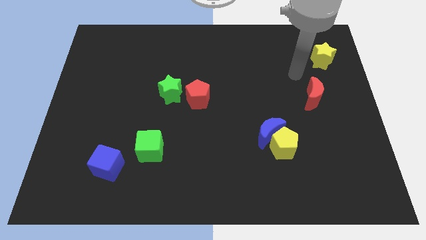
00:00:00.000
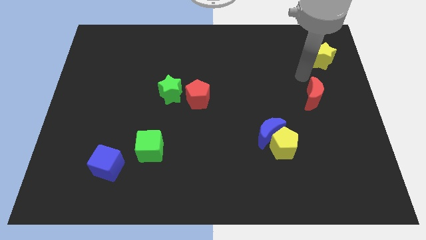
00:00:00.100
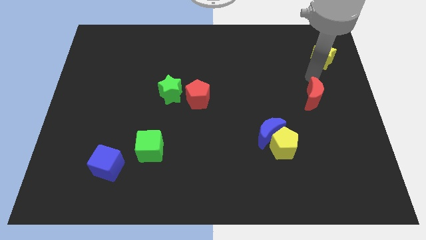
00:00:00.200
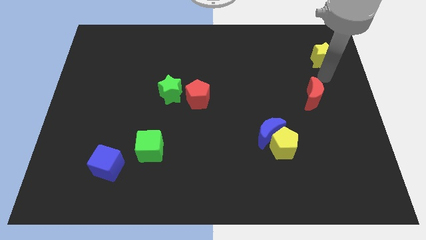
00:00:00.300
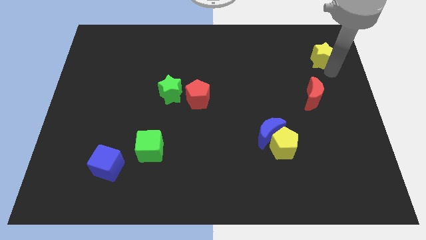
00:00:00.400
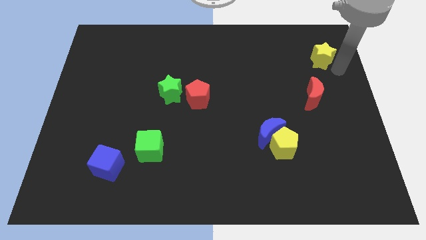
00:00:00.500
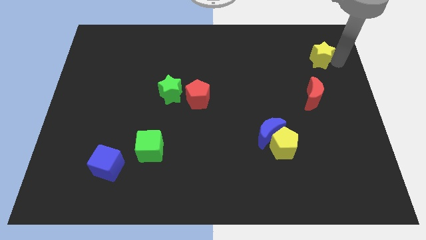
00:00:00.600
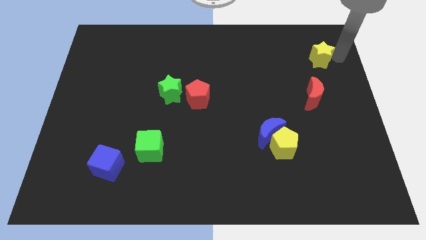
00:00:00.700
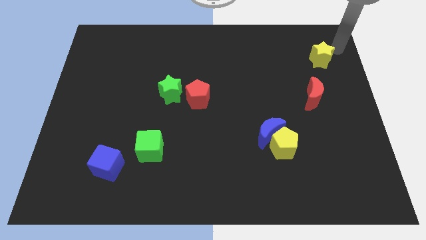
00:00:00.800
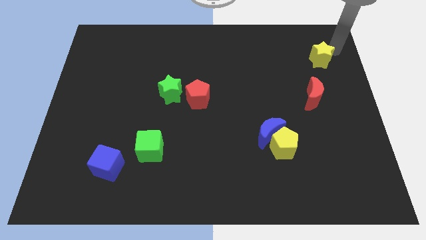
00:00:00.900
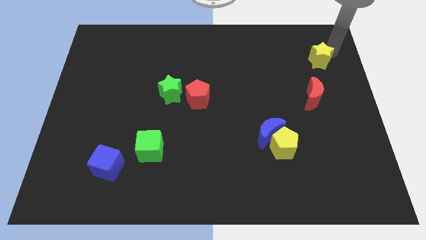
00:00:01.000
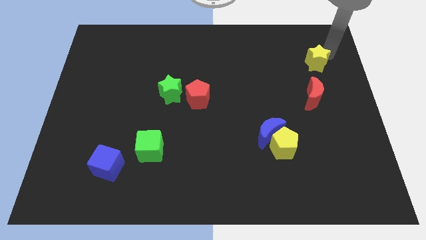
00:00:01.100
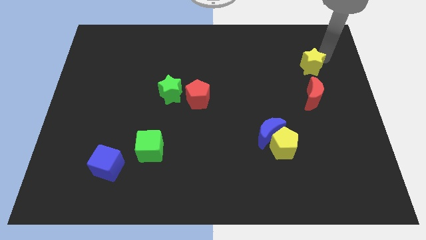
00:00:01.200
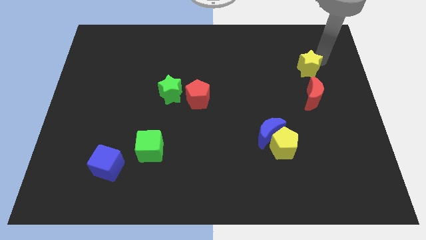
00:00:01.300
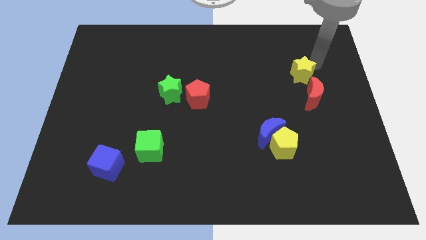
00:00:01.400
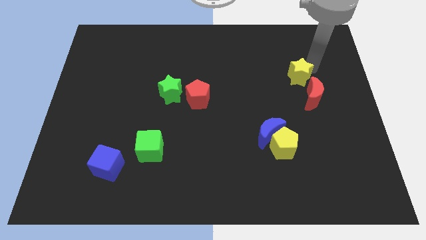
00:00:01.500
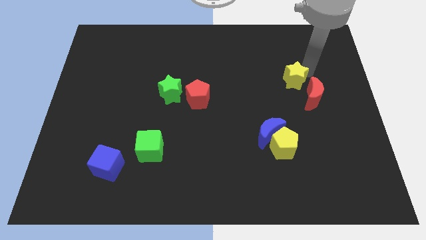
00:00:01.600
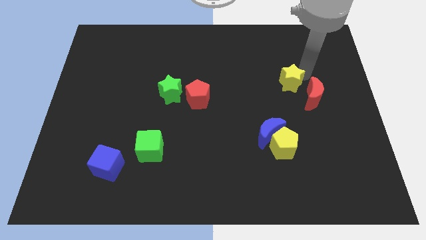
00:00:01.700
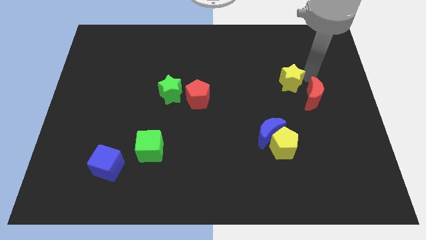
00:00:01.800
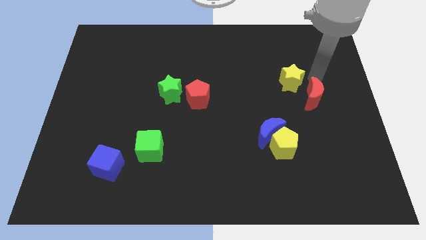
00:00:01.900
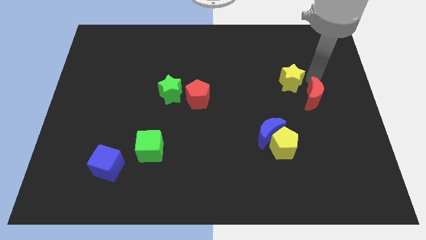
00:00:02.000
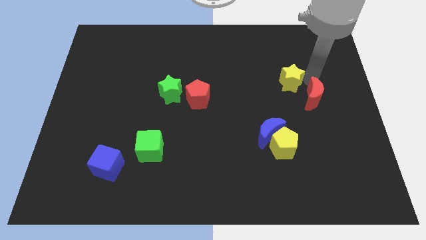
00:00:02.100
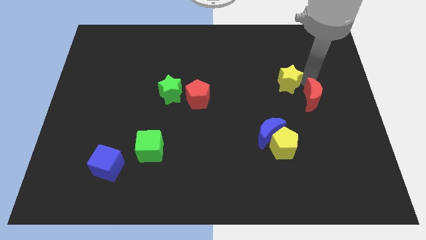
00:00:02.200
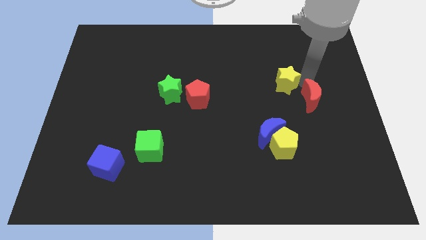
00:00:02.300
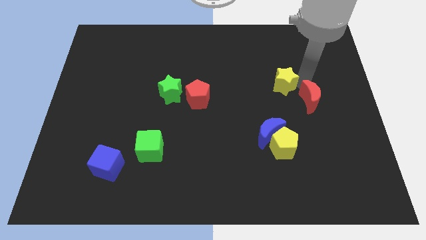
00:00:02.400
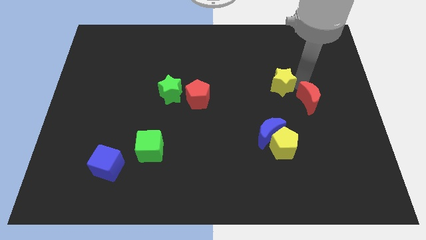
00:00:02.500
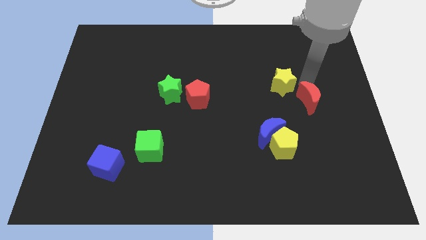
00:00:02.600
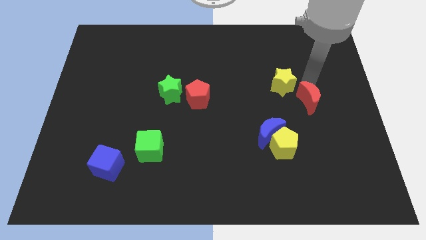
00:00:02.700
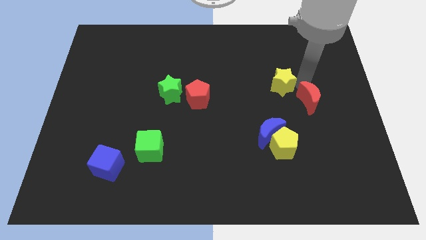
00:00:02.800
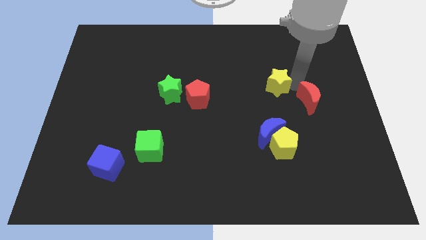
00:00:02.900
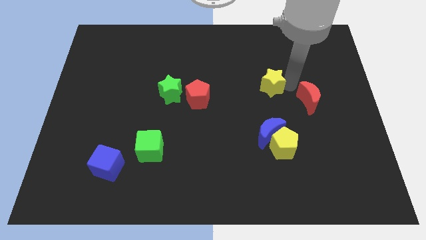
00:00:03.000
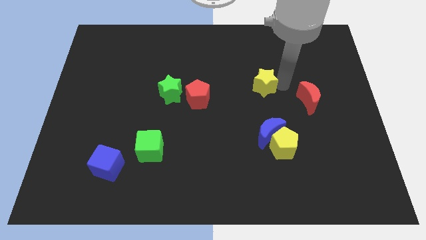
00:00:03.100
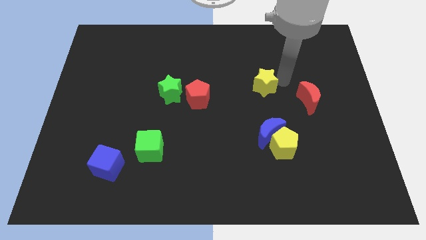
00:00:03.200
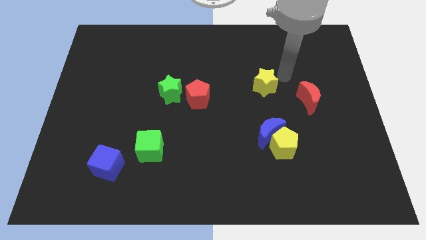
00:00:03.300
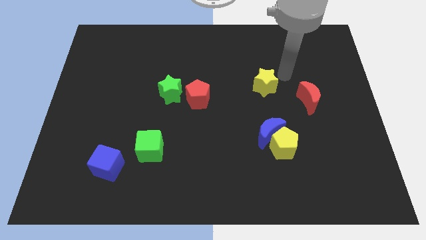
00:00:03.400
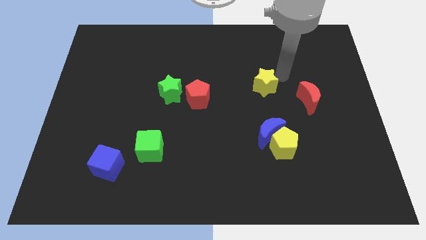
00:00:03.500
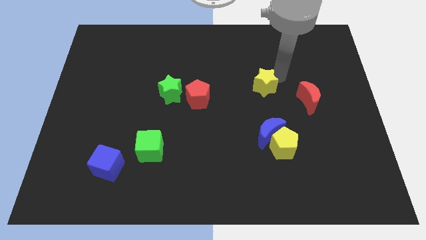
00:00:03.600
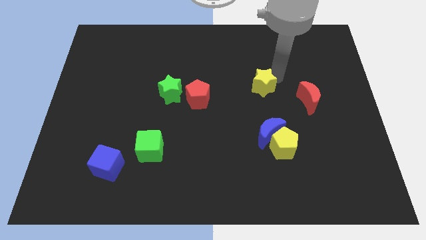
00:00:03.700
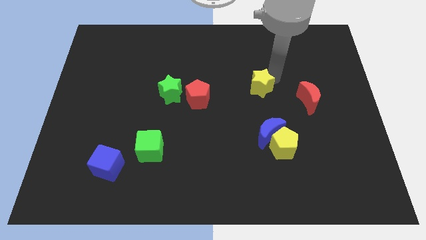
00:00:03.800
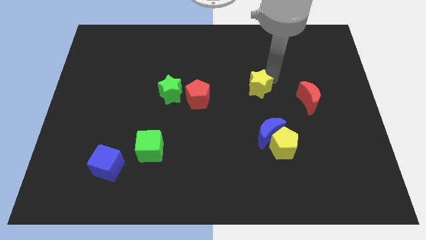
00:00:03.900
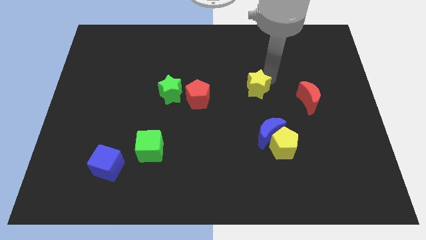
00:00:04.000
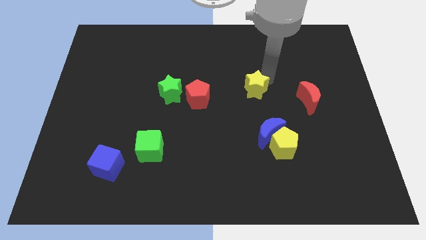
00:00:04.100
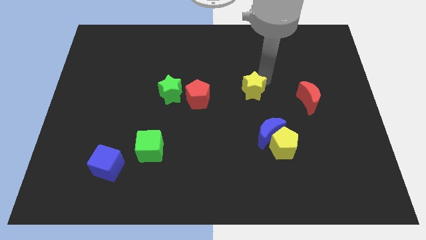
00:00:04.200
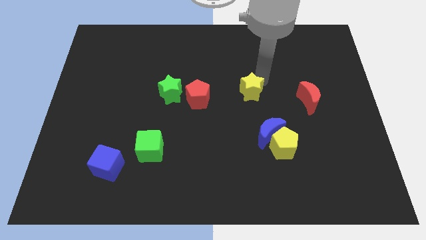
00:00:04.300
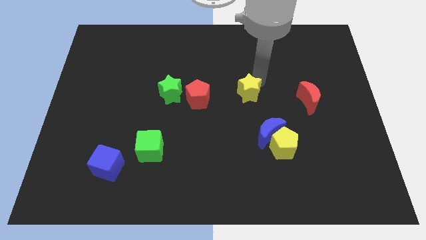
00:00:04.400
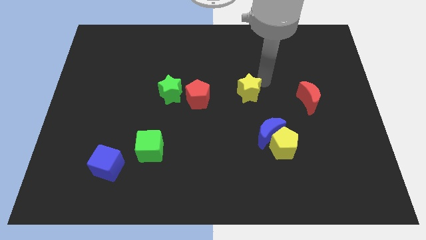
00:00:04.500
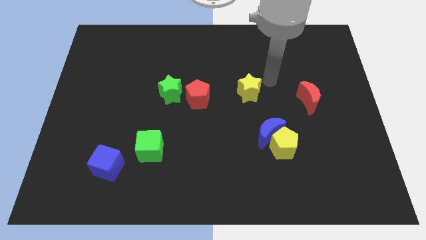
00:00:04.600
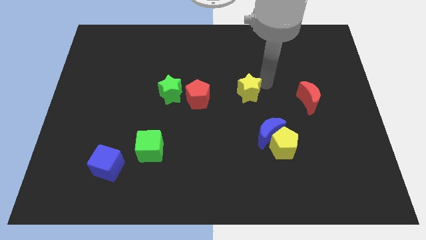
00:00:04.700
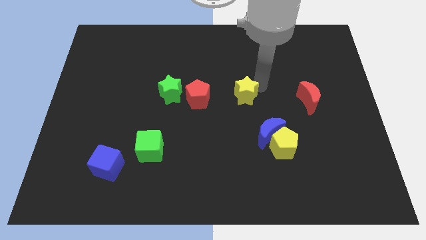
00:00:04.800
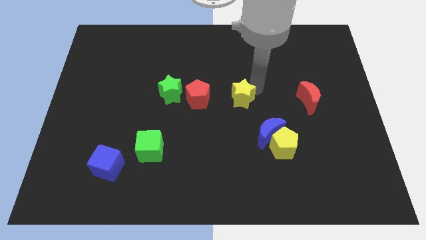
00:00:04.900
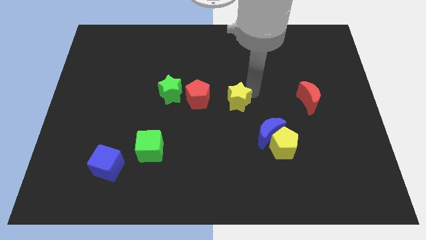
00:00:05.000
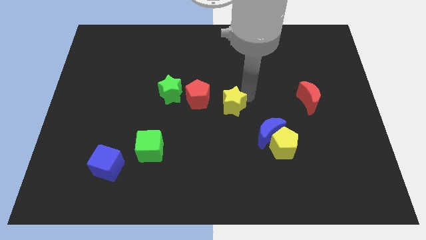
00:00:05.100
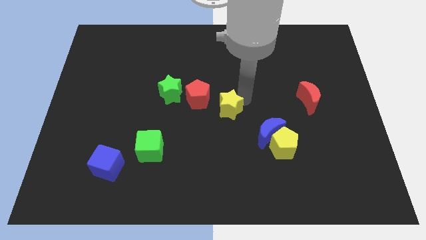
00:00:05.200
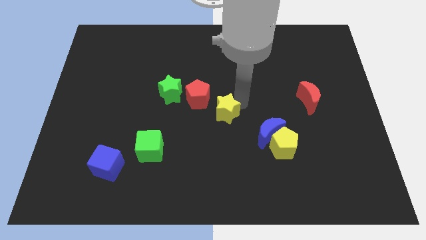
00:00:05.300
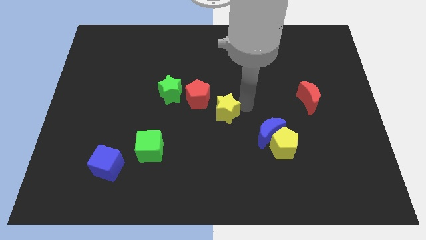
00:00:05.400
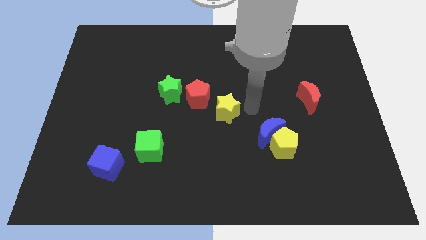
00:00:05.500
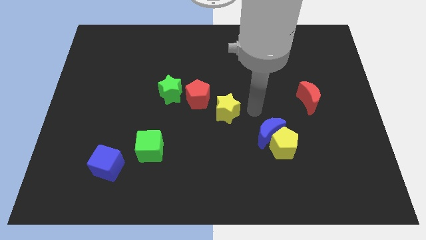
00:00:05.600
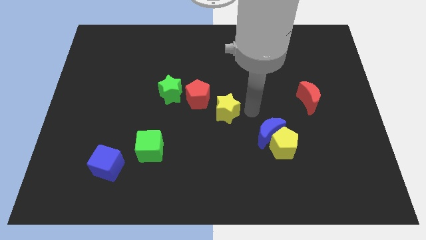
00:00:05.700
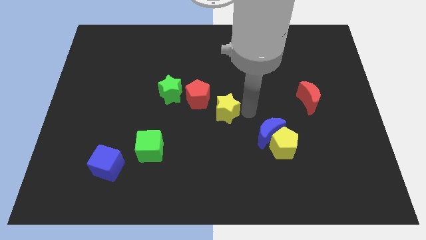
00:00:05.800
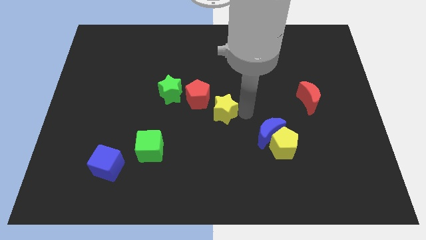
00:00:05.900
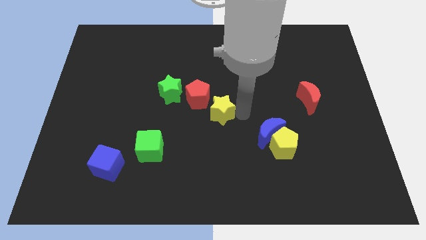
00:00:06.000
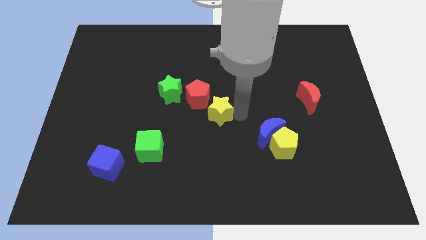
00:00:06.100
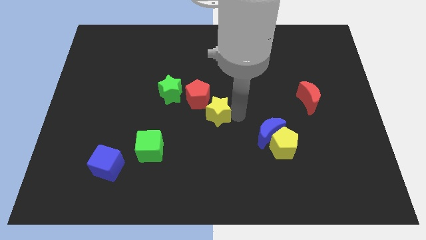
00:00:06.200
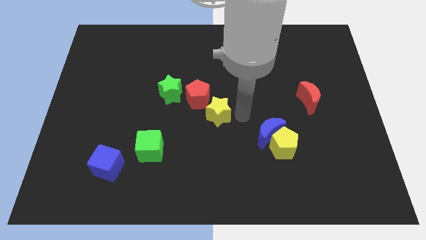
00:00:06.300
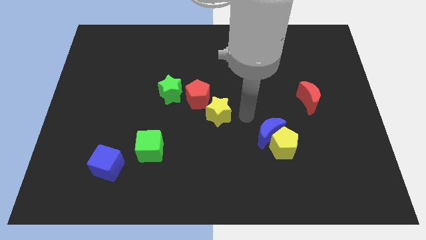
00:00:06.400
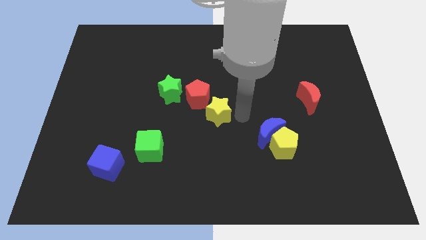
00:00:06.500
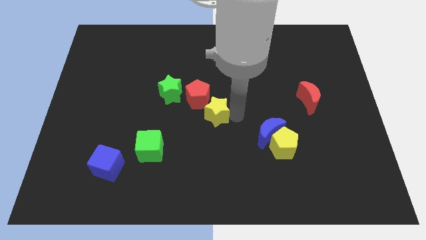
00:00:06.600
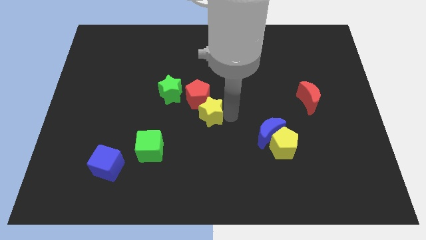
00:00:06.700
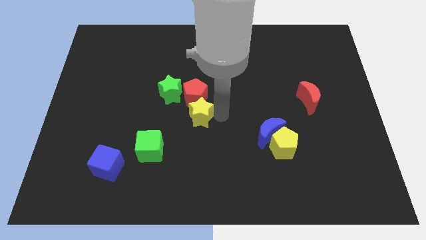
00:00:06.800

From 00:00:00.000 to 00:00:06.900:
put the yellow star to the bottom left side of the red pentagon

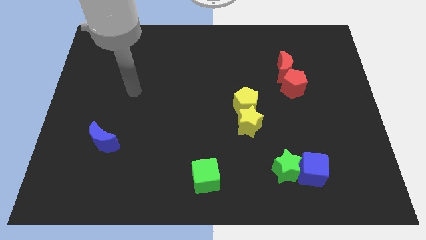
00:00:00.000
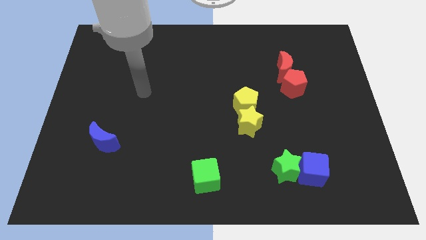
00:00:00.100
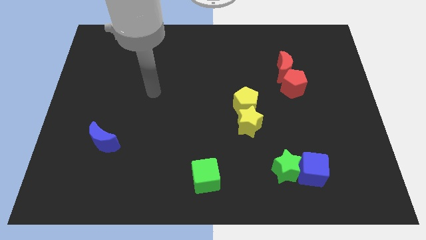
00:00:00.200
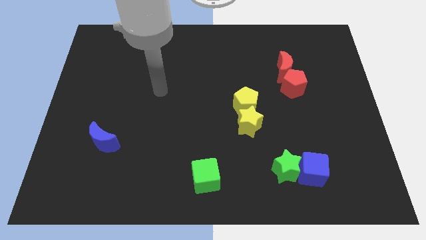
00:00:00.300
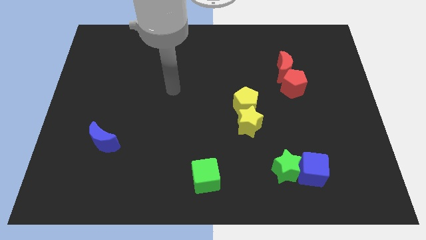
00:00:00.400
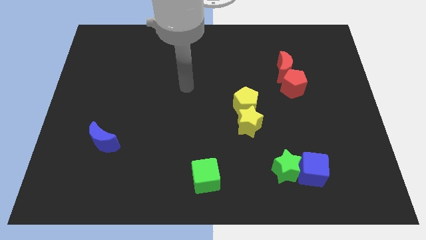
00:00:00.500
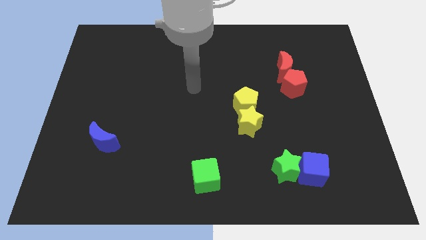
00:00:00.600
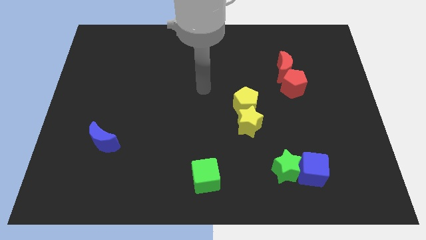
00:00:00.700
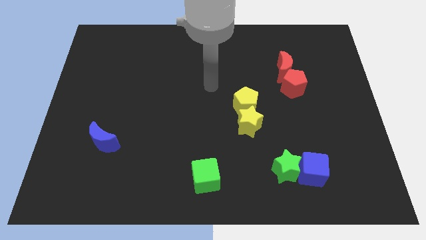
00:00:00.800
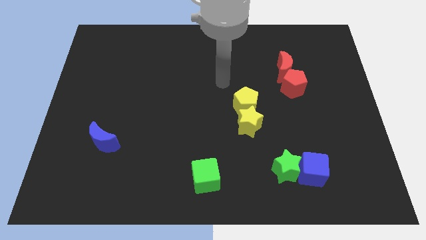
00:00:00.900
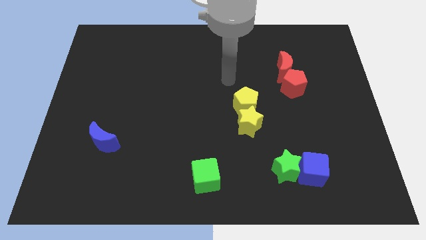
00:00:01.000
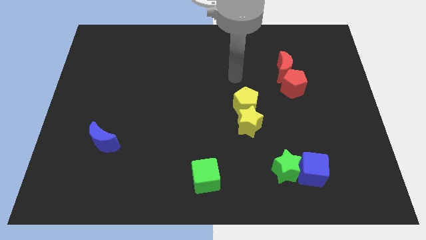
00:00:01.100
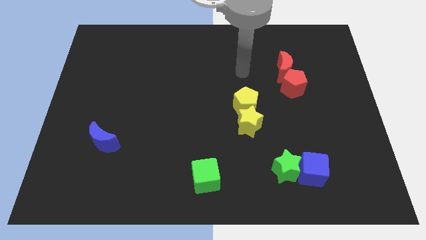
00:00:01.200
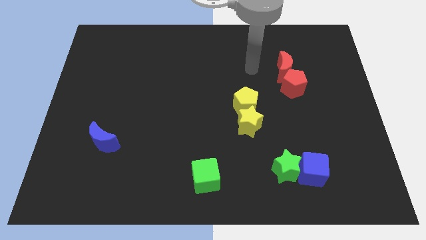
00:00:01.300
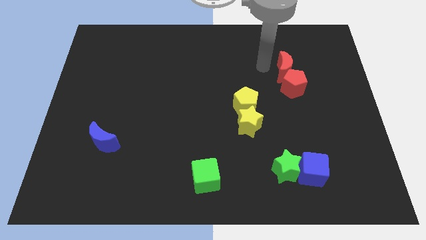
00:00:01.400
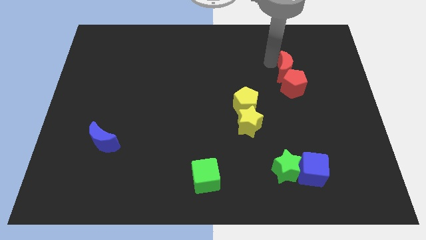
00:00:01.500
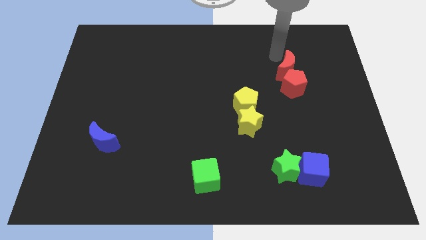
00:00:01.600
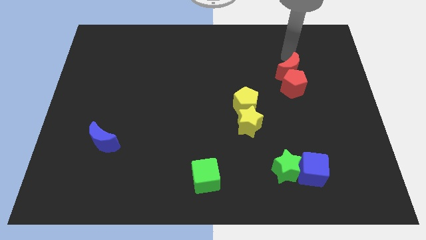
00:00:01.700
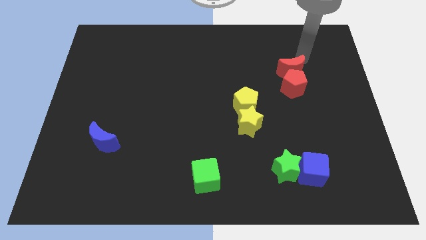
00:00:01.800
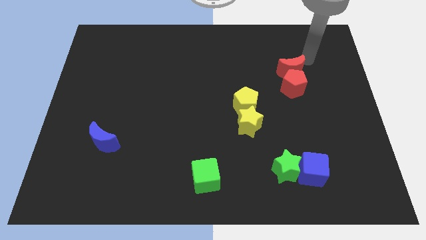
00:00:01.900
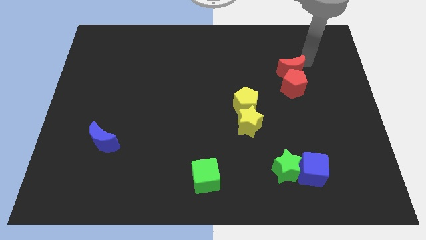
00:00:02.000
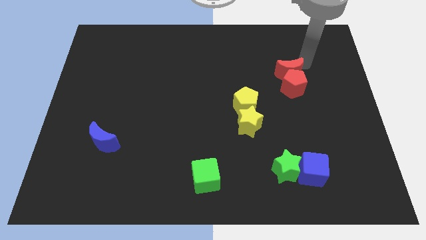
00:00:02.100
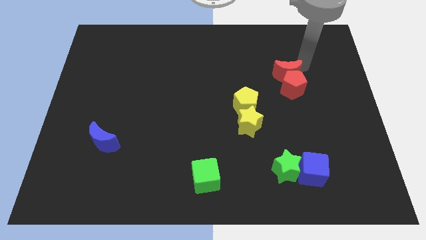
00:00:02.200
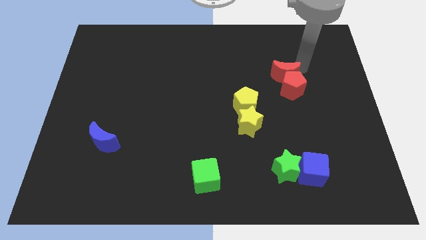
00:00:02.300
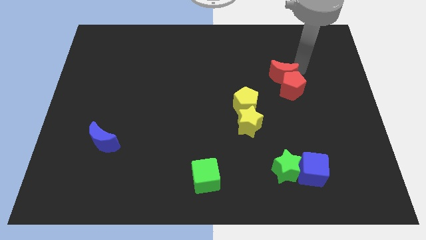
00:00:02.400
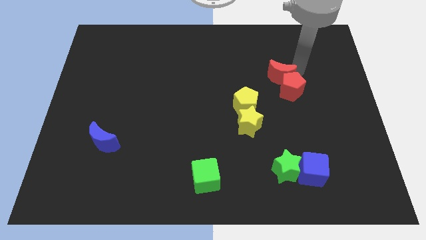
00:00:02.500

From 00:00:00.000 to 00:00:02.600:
slide the red moon to the top right side of the yellow pentagon
